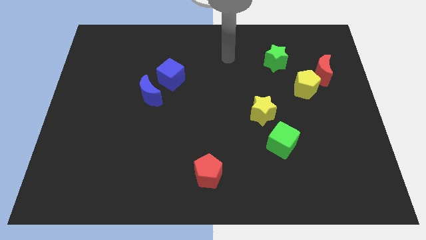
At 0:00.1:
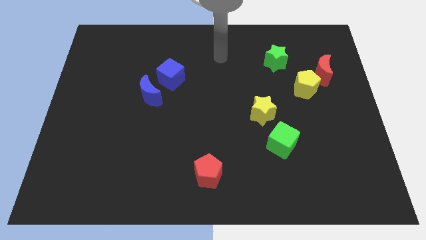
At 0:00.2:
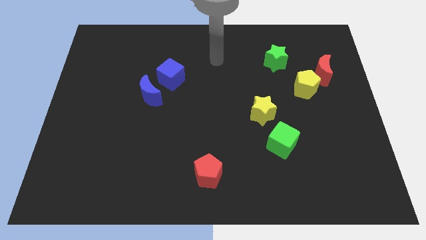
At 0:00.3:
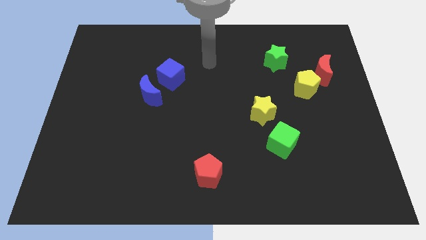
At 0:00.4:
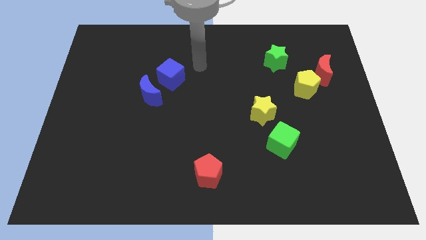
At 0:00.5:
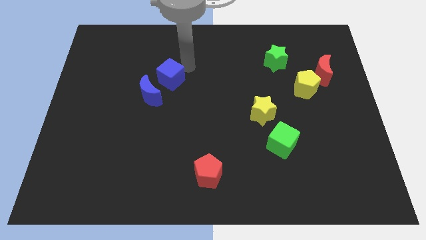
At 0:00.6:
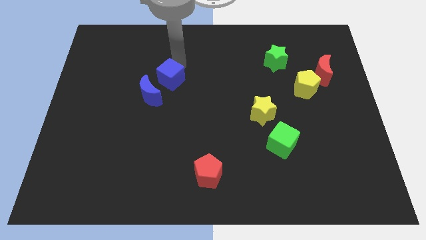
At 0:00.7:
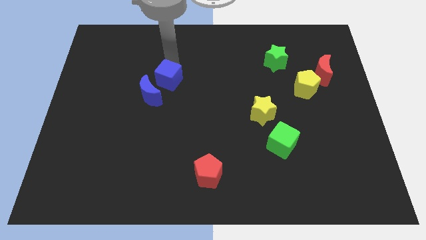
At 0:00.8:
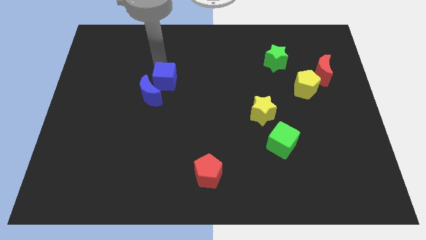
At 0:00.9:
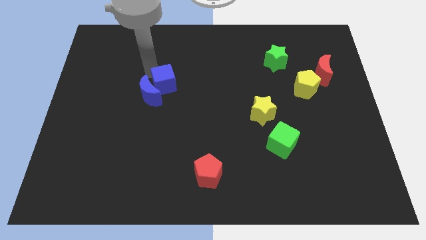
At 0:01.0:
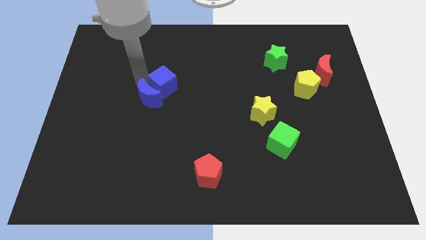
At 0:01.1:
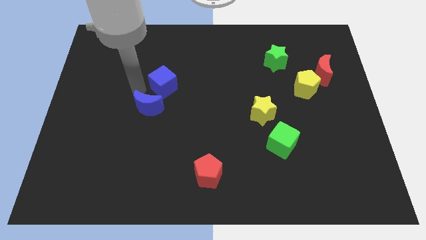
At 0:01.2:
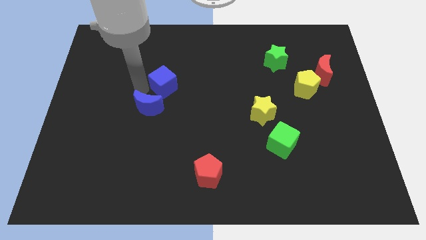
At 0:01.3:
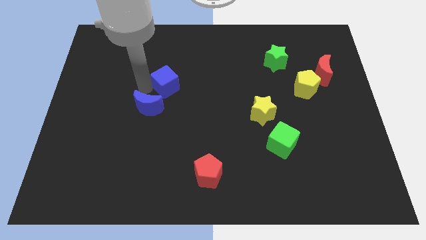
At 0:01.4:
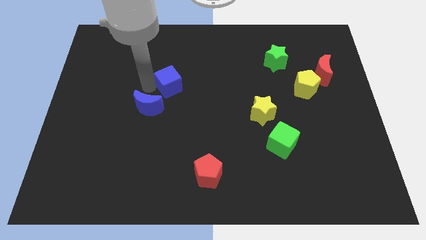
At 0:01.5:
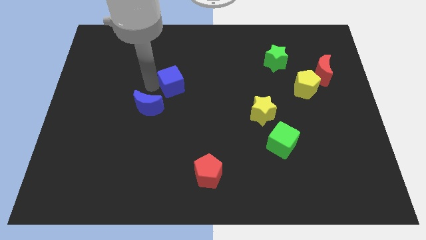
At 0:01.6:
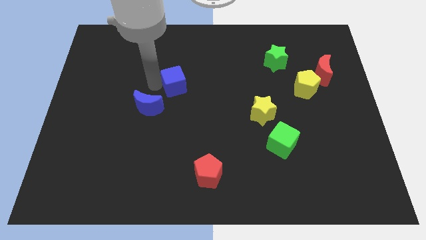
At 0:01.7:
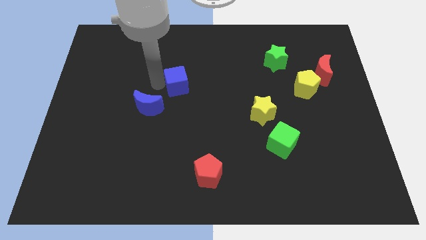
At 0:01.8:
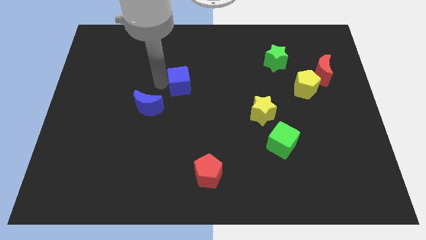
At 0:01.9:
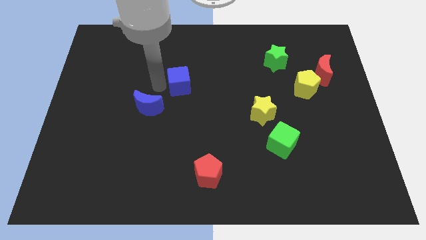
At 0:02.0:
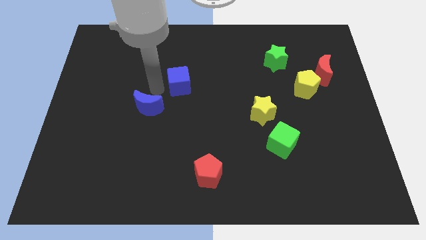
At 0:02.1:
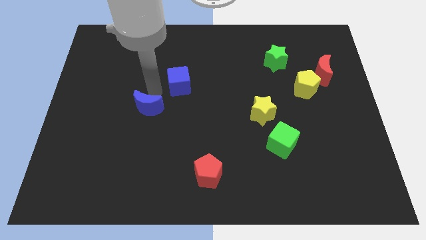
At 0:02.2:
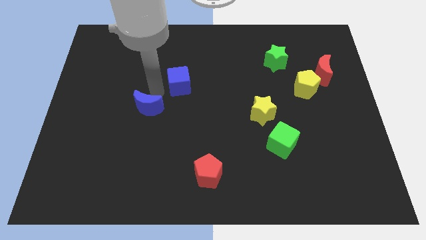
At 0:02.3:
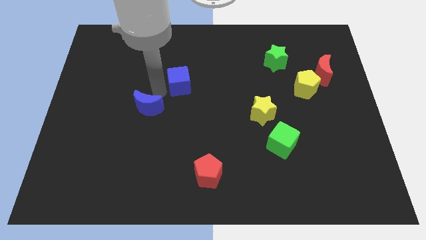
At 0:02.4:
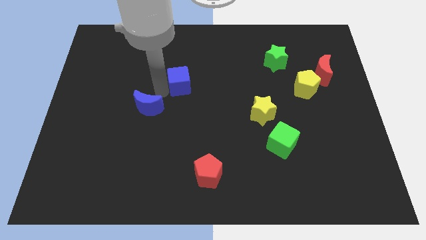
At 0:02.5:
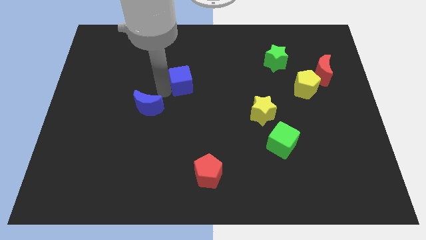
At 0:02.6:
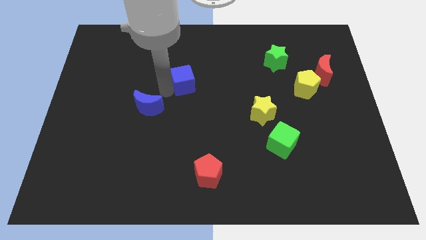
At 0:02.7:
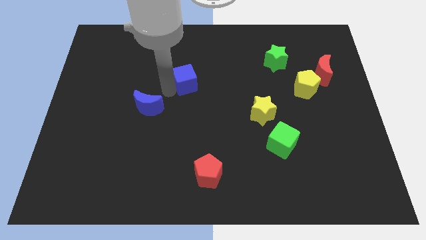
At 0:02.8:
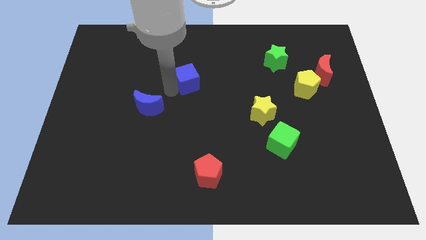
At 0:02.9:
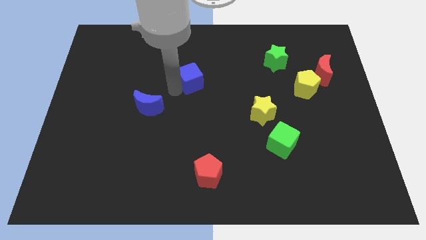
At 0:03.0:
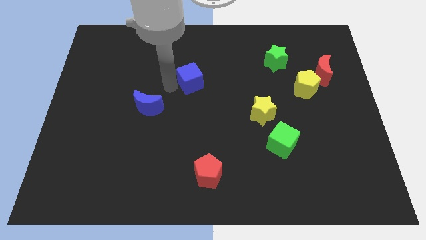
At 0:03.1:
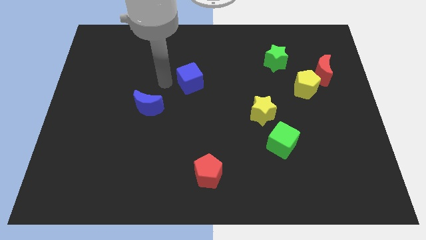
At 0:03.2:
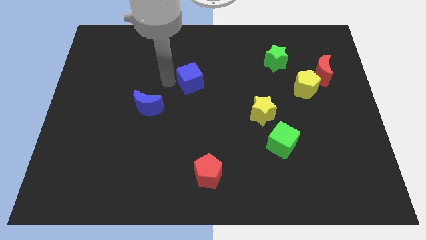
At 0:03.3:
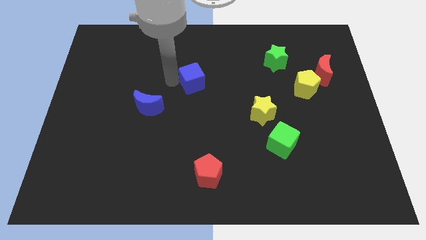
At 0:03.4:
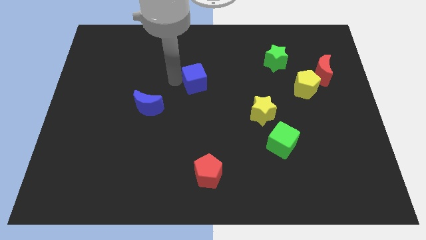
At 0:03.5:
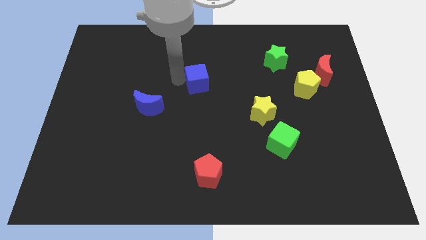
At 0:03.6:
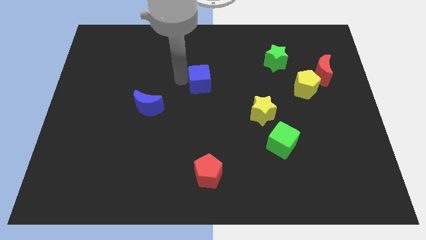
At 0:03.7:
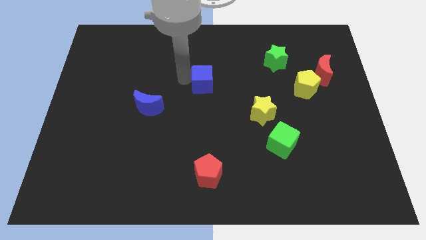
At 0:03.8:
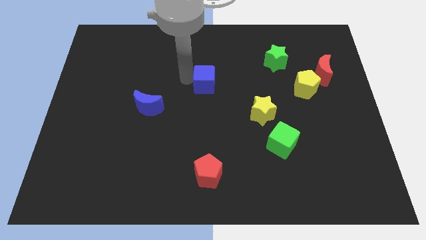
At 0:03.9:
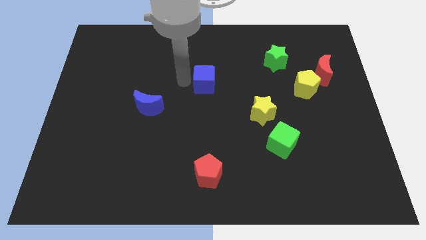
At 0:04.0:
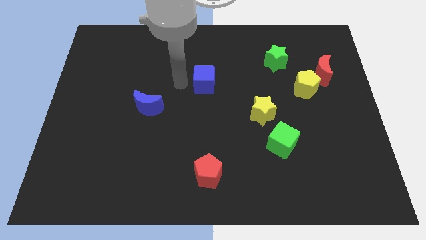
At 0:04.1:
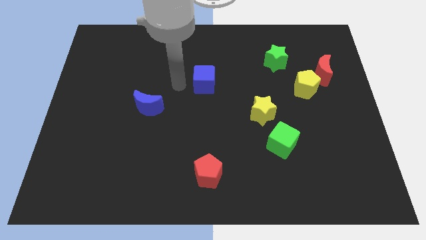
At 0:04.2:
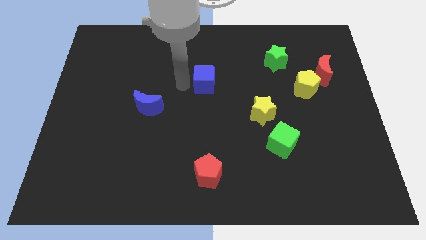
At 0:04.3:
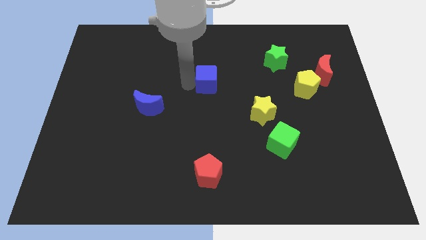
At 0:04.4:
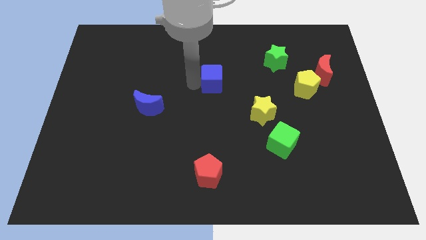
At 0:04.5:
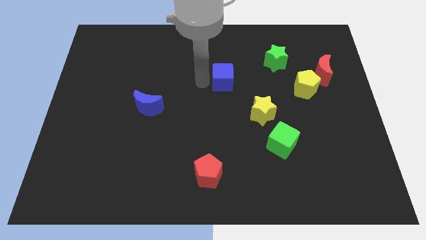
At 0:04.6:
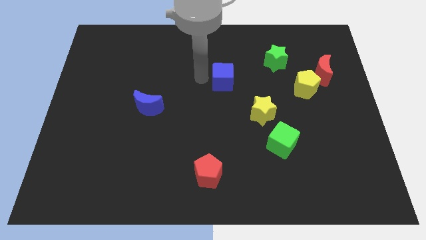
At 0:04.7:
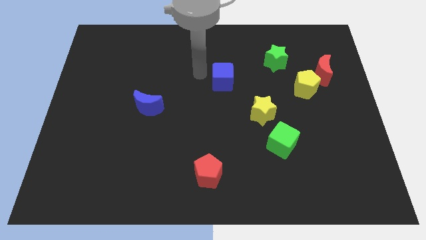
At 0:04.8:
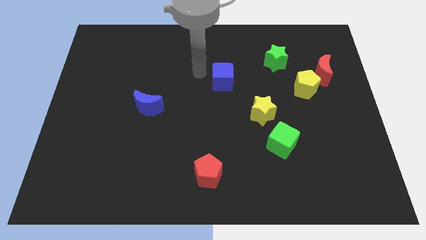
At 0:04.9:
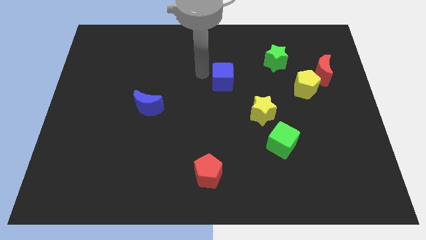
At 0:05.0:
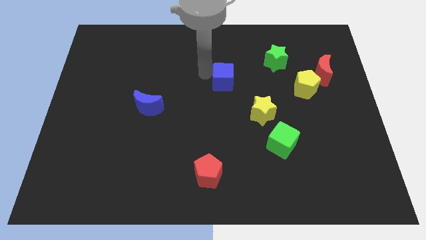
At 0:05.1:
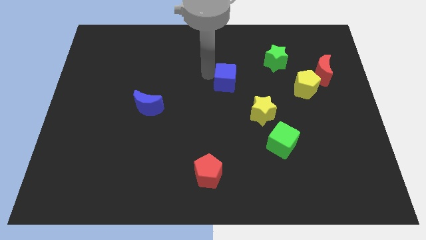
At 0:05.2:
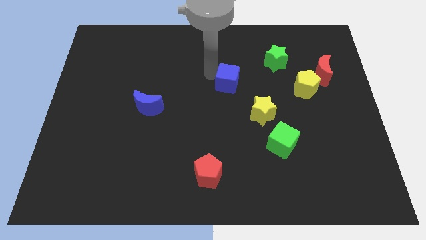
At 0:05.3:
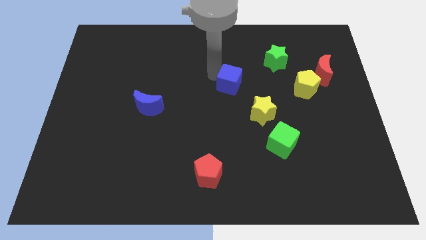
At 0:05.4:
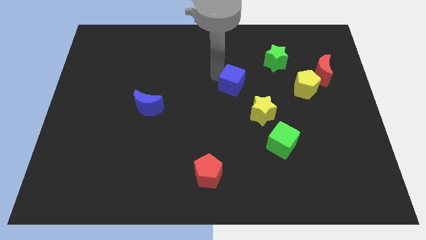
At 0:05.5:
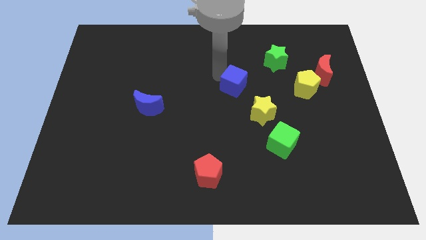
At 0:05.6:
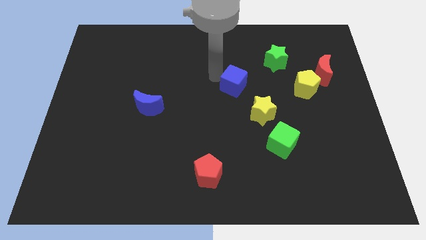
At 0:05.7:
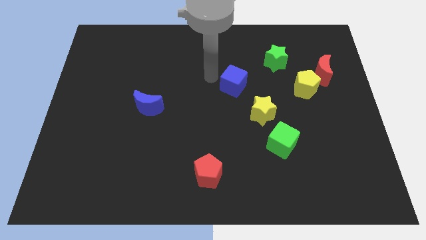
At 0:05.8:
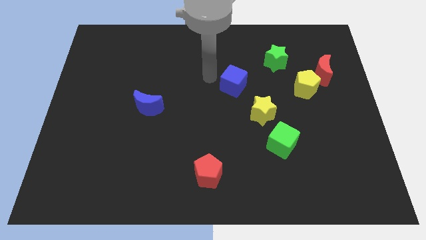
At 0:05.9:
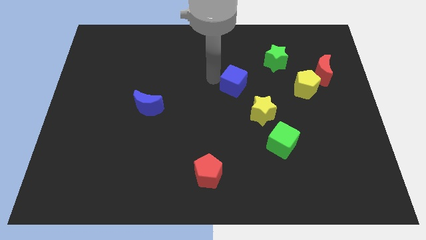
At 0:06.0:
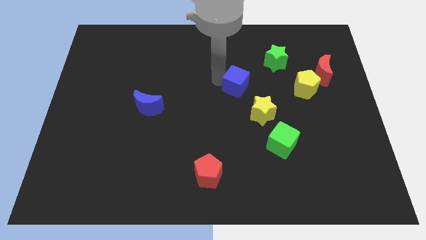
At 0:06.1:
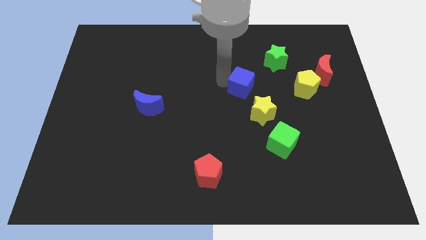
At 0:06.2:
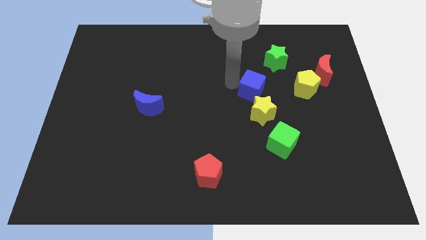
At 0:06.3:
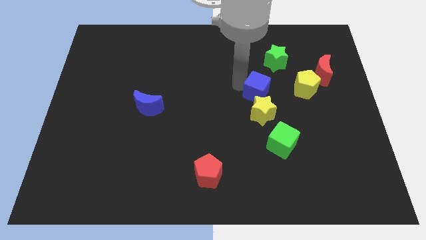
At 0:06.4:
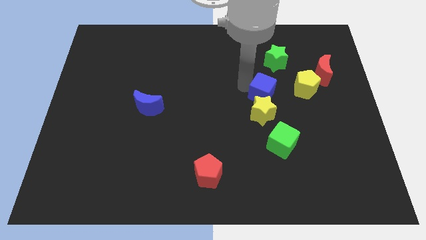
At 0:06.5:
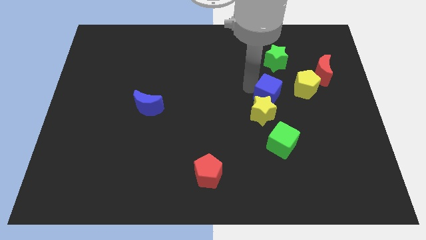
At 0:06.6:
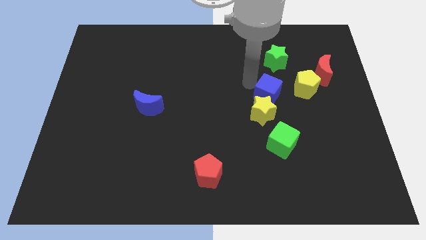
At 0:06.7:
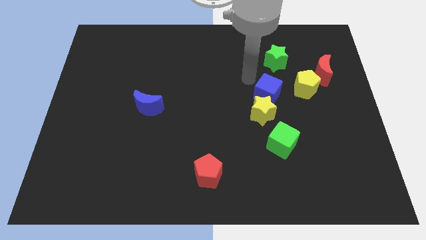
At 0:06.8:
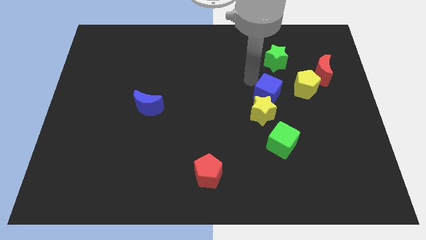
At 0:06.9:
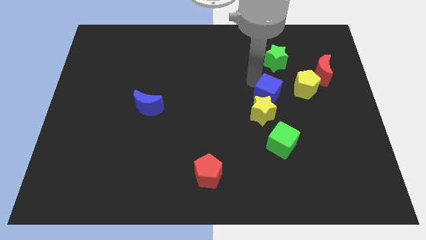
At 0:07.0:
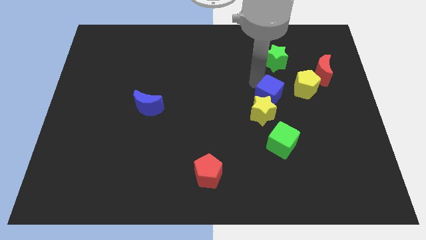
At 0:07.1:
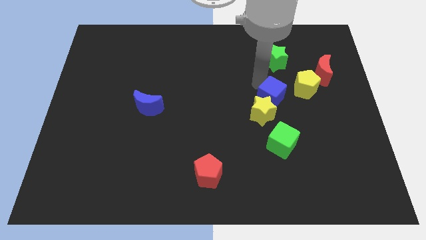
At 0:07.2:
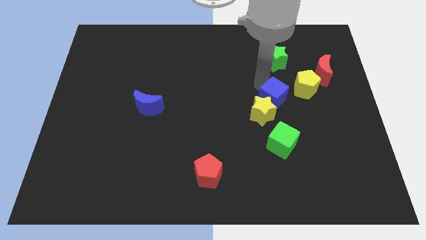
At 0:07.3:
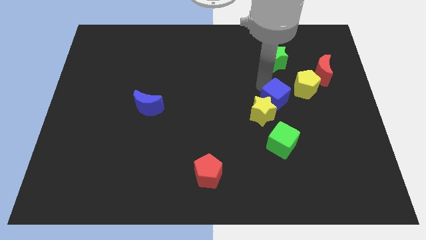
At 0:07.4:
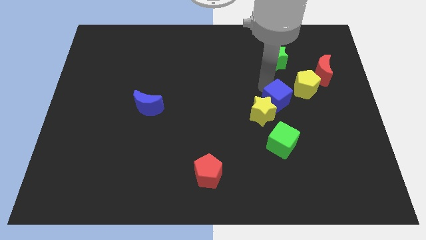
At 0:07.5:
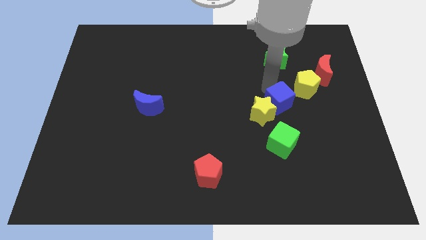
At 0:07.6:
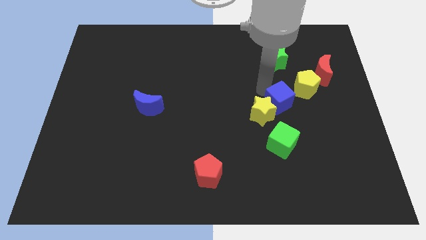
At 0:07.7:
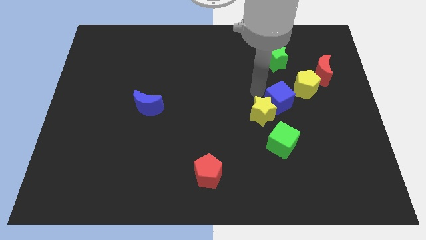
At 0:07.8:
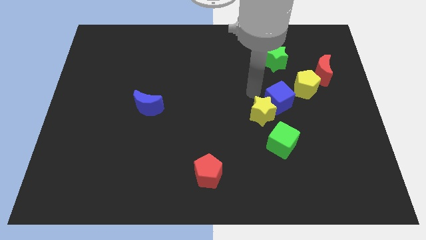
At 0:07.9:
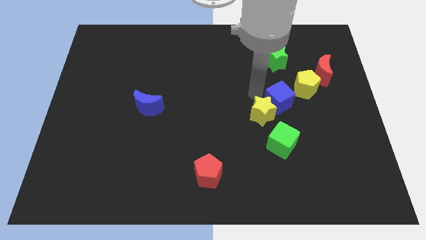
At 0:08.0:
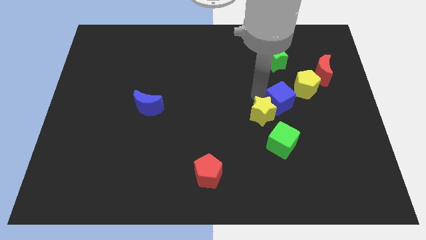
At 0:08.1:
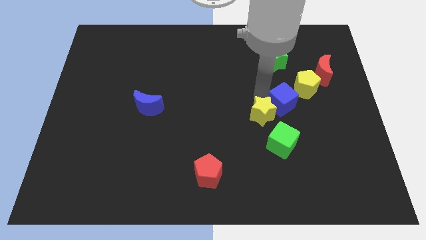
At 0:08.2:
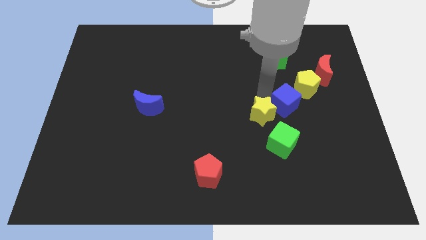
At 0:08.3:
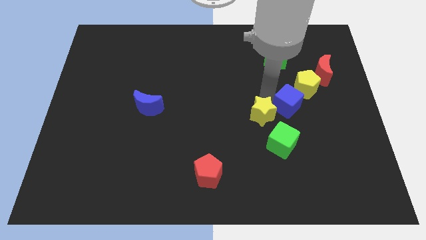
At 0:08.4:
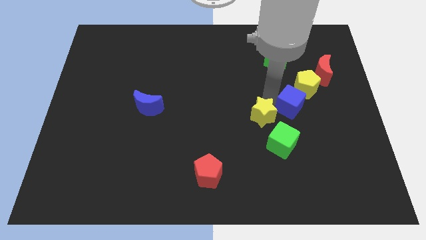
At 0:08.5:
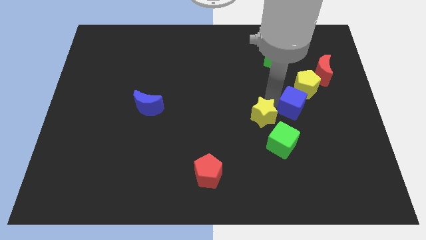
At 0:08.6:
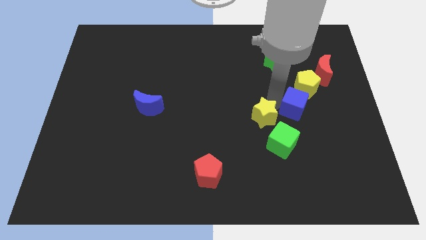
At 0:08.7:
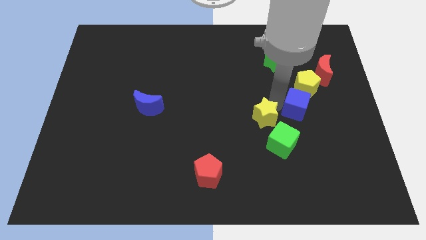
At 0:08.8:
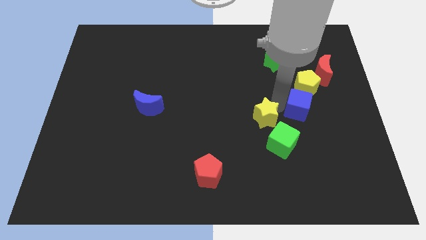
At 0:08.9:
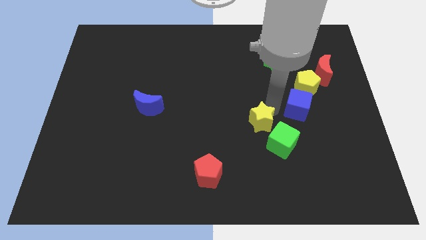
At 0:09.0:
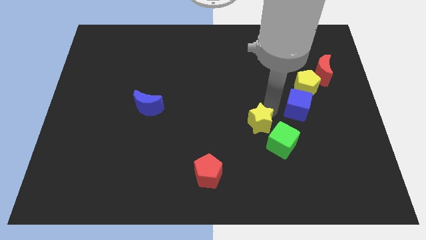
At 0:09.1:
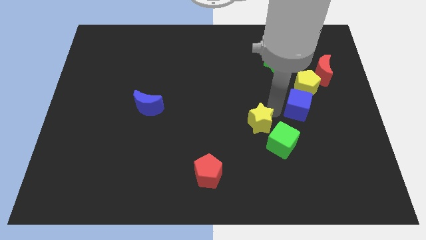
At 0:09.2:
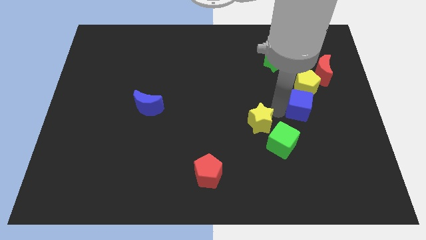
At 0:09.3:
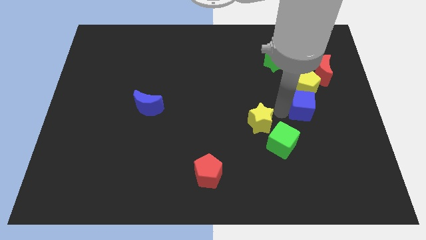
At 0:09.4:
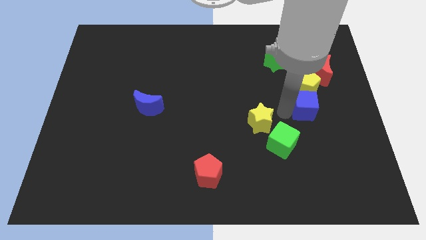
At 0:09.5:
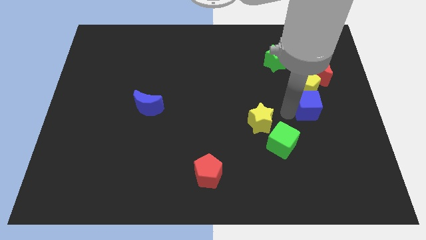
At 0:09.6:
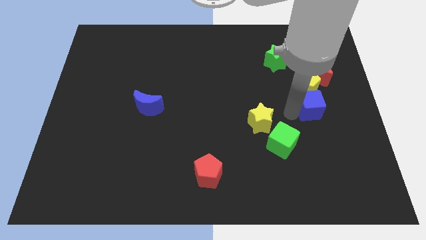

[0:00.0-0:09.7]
move the blue cube below the red moon
